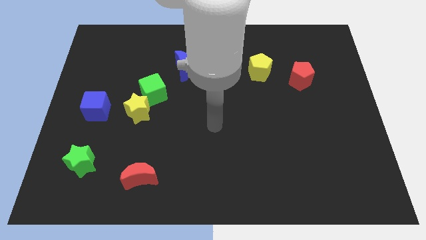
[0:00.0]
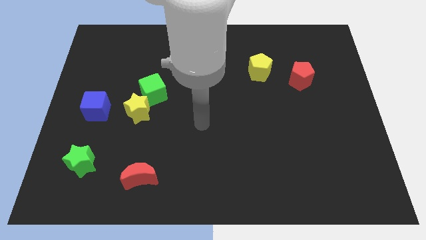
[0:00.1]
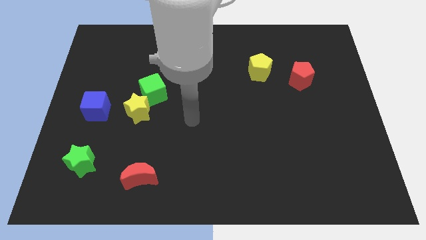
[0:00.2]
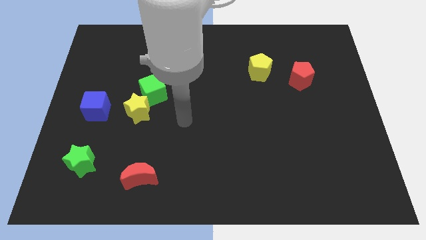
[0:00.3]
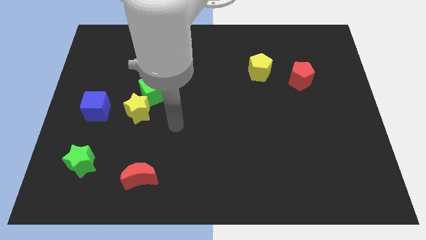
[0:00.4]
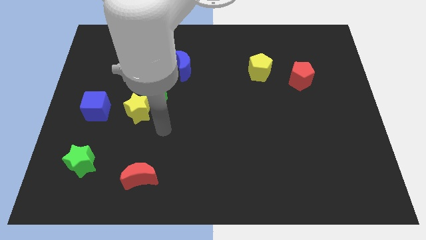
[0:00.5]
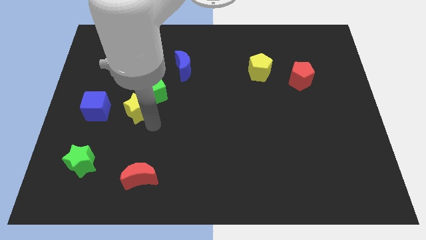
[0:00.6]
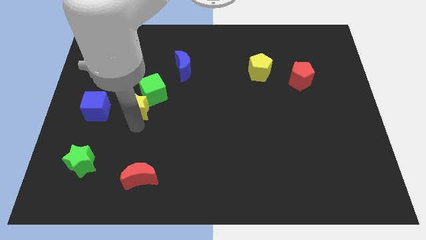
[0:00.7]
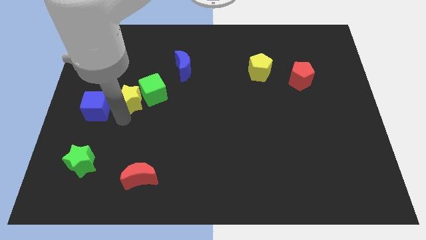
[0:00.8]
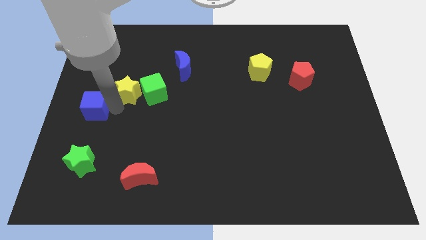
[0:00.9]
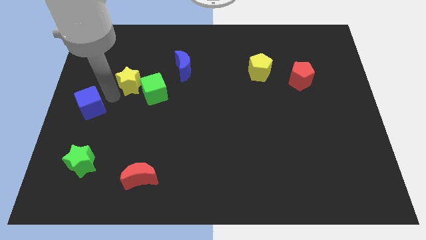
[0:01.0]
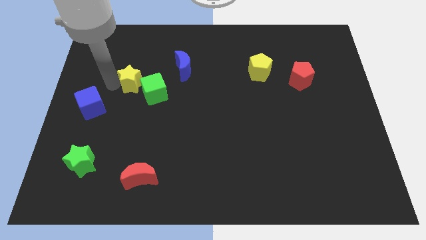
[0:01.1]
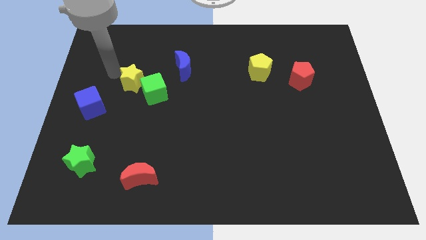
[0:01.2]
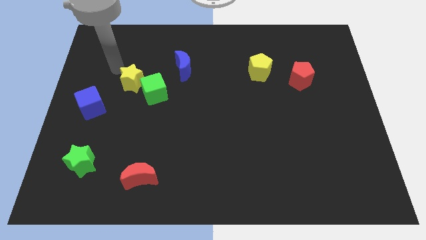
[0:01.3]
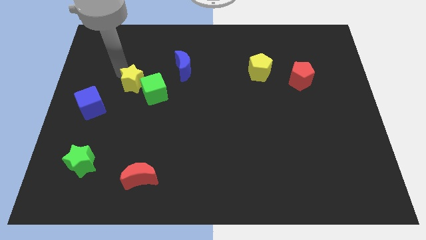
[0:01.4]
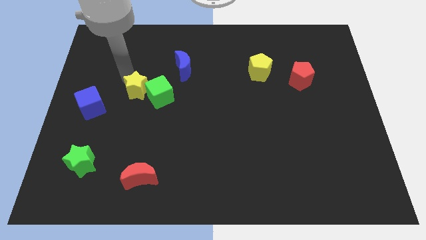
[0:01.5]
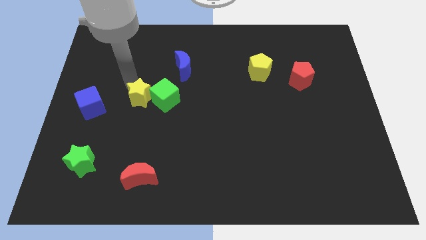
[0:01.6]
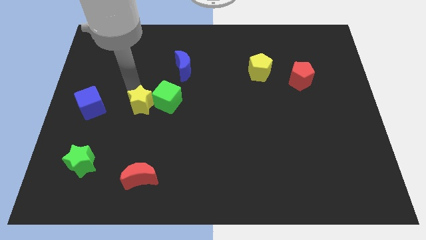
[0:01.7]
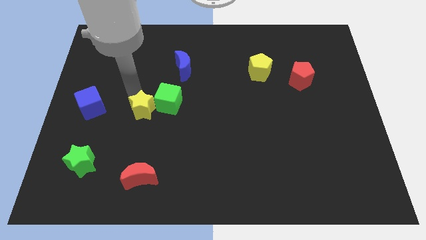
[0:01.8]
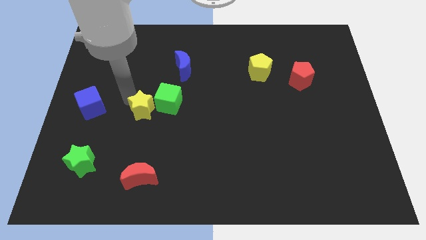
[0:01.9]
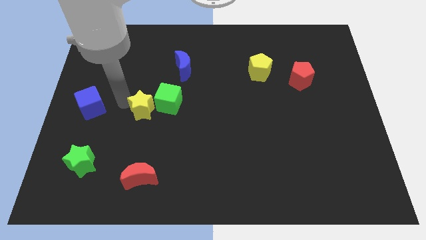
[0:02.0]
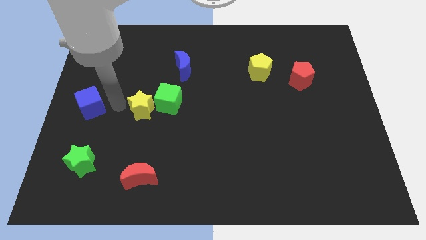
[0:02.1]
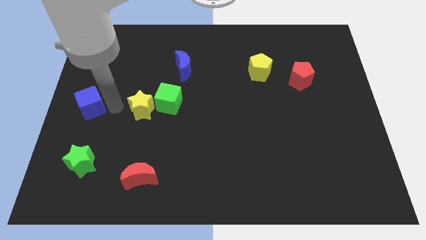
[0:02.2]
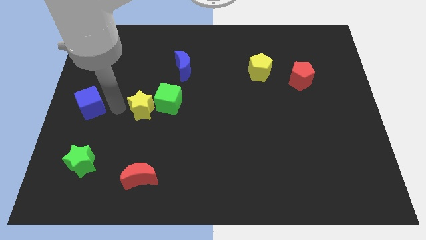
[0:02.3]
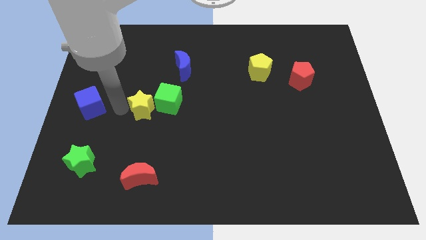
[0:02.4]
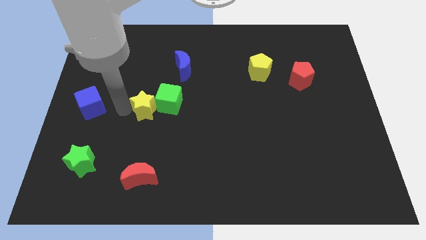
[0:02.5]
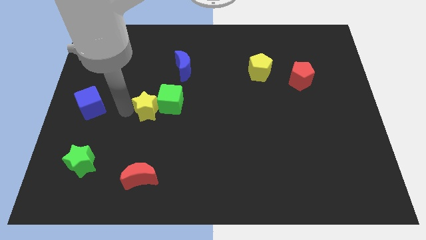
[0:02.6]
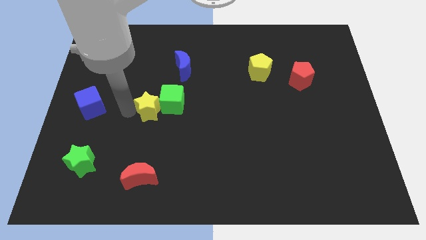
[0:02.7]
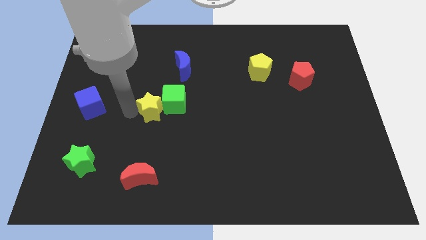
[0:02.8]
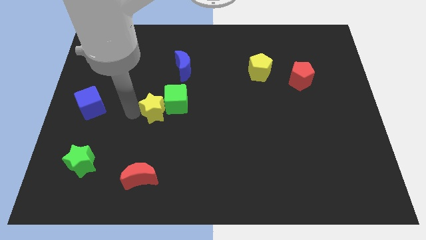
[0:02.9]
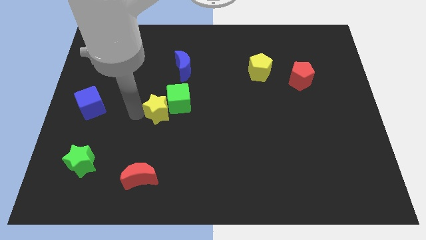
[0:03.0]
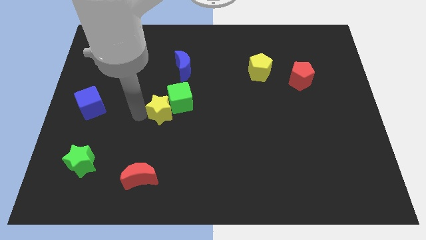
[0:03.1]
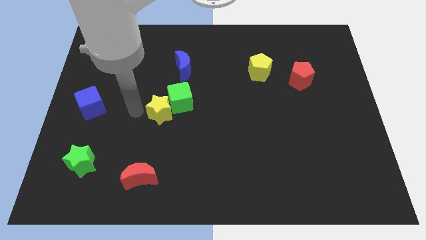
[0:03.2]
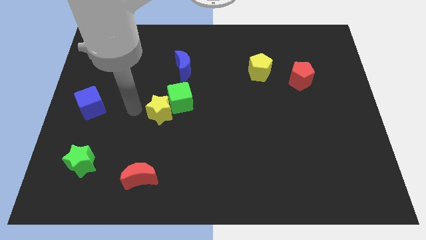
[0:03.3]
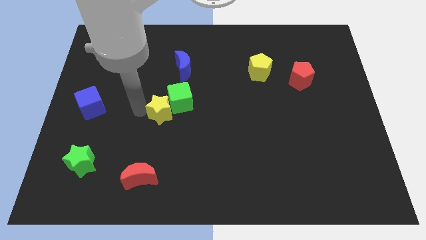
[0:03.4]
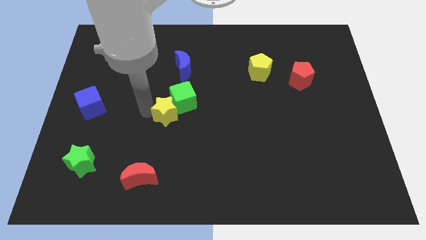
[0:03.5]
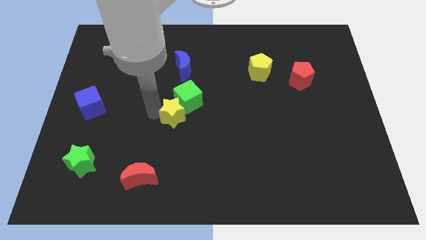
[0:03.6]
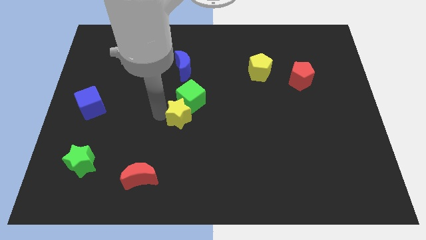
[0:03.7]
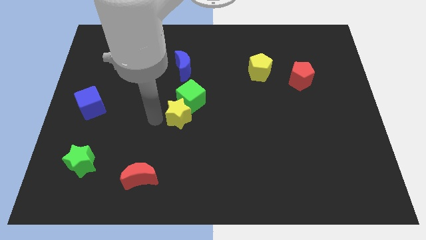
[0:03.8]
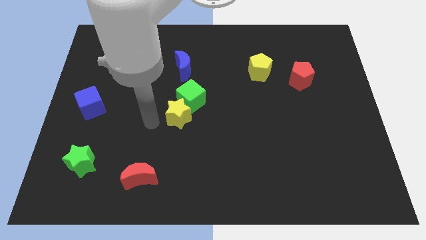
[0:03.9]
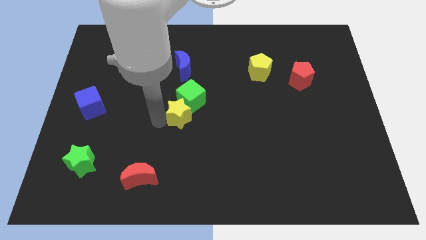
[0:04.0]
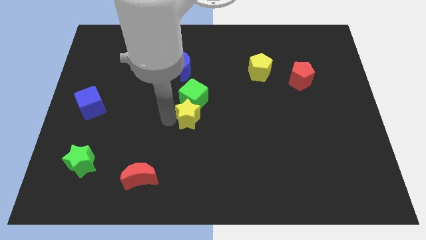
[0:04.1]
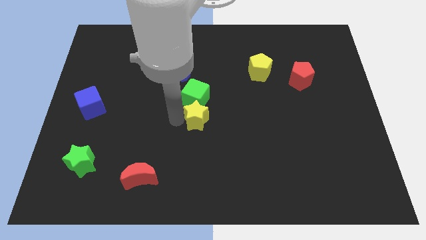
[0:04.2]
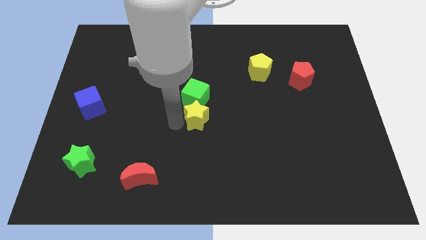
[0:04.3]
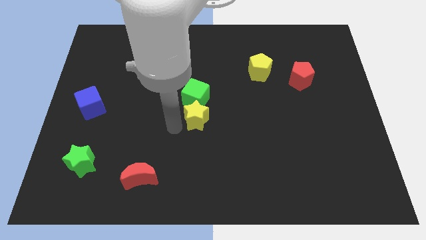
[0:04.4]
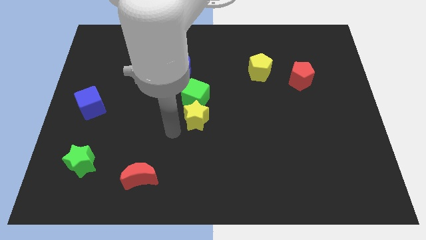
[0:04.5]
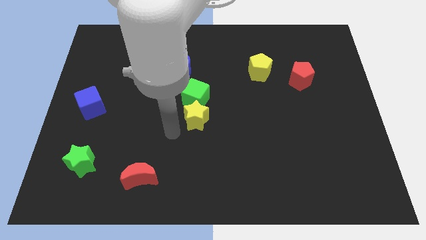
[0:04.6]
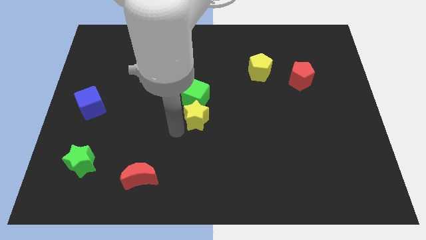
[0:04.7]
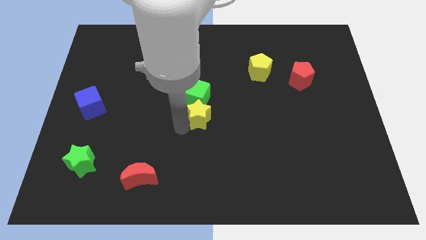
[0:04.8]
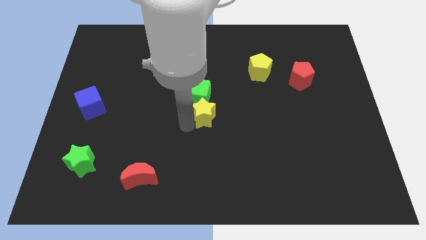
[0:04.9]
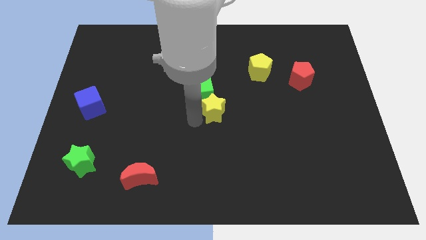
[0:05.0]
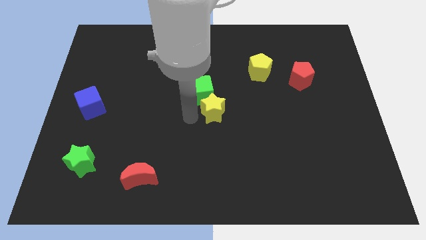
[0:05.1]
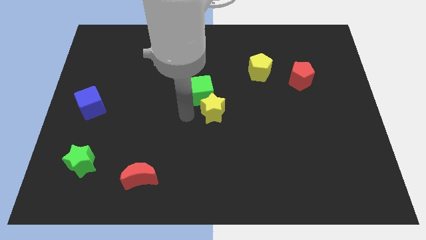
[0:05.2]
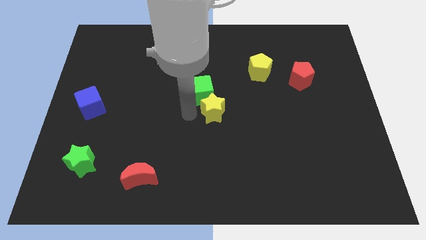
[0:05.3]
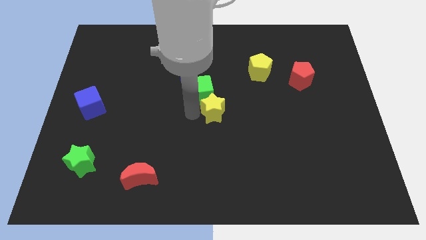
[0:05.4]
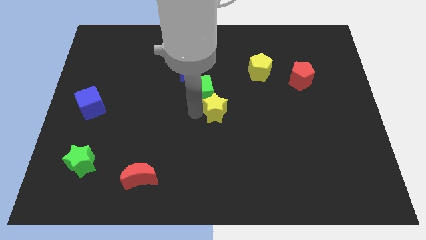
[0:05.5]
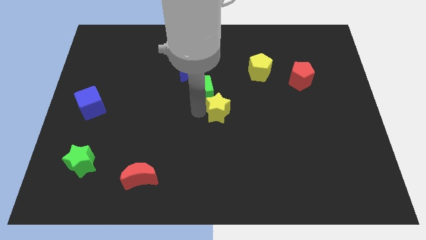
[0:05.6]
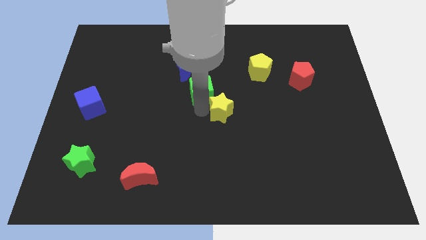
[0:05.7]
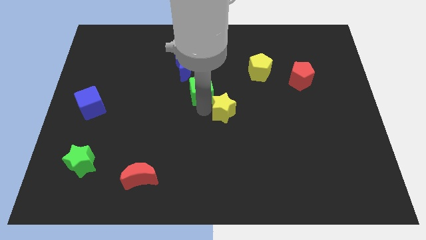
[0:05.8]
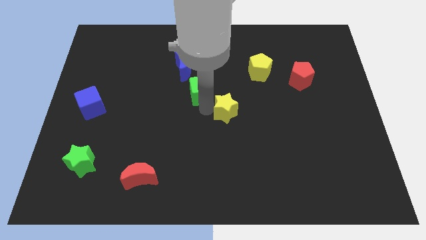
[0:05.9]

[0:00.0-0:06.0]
move the yellow star right

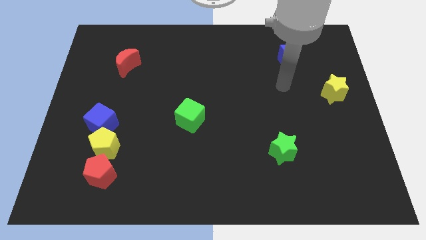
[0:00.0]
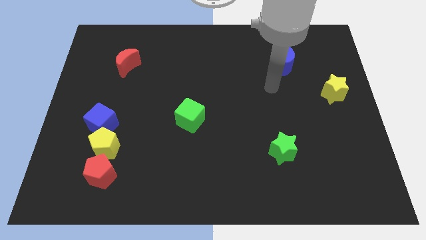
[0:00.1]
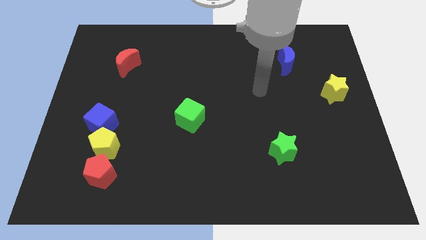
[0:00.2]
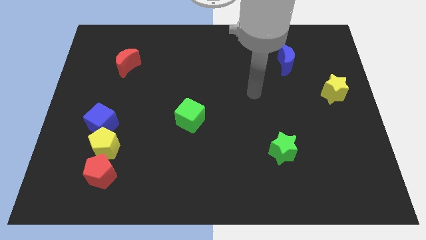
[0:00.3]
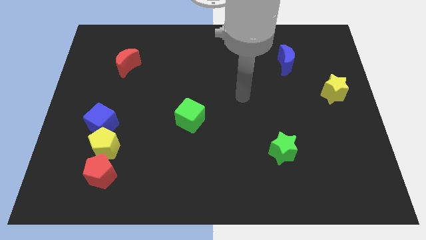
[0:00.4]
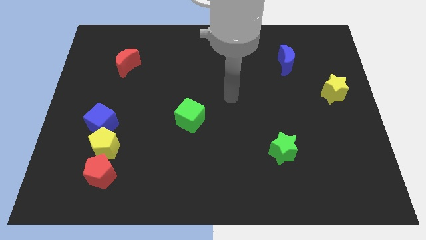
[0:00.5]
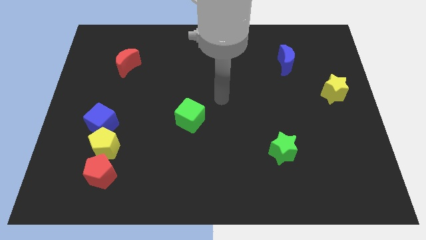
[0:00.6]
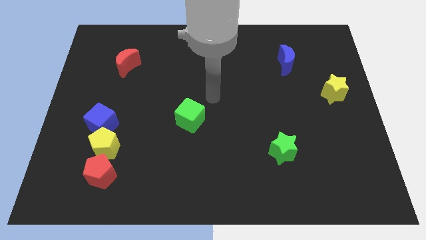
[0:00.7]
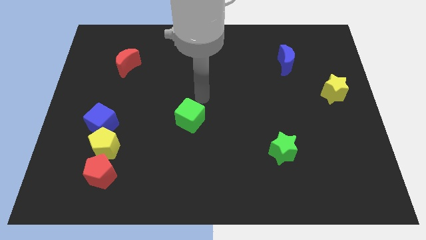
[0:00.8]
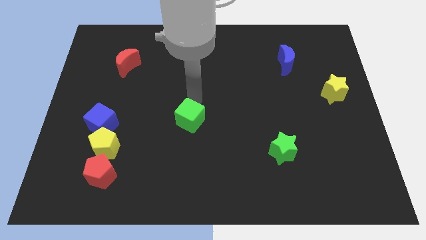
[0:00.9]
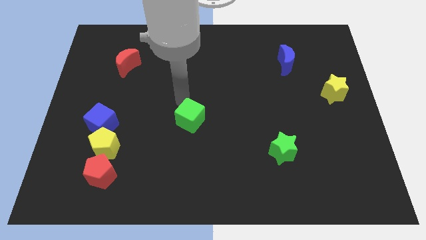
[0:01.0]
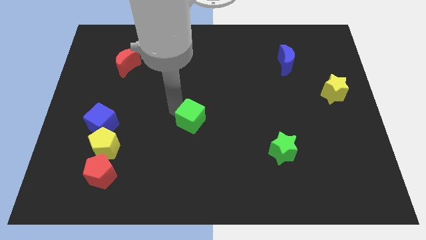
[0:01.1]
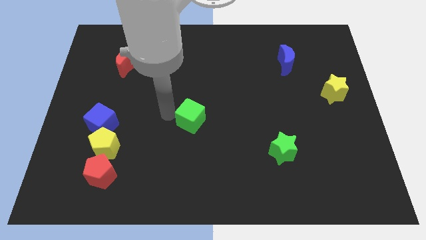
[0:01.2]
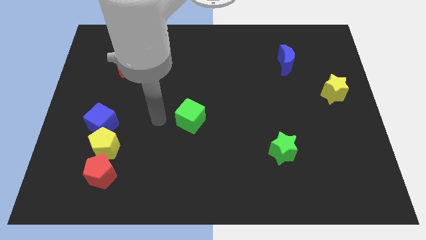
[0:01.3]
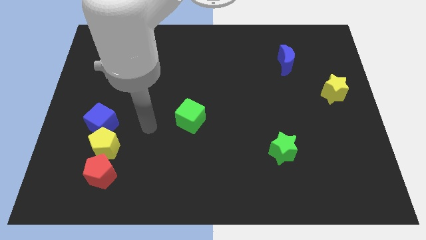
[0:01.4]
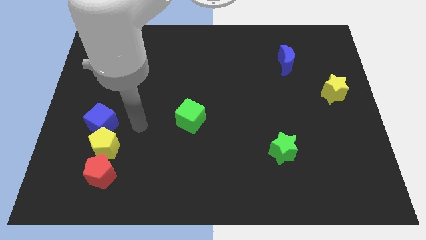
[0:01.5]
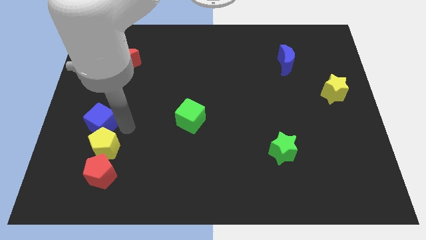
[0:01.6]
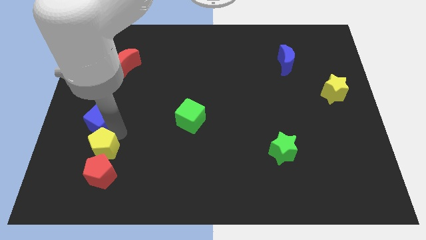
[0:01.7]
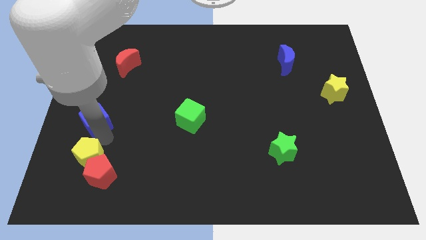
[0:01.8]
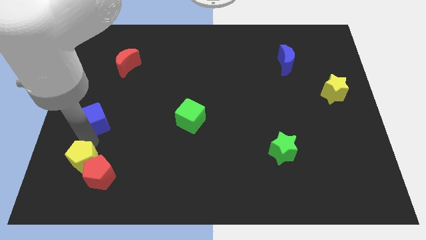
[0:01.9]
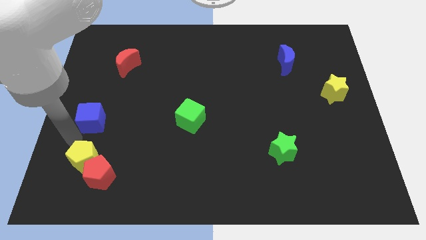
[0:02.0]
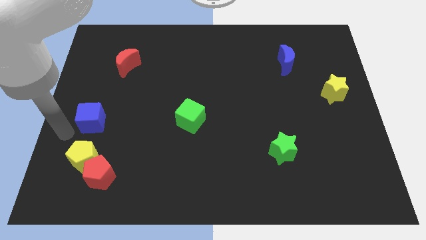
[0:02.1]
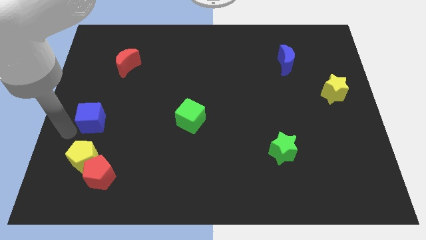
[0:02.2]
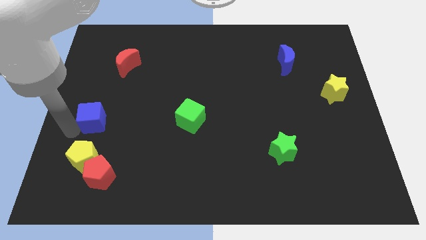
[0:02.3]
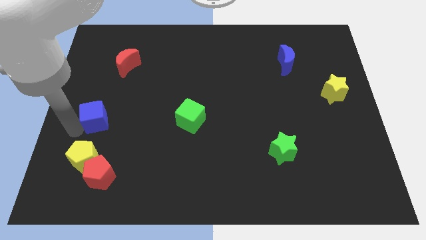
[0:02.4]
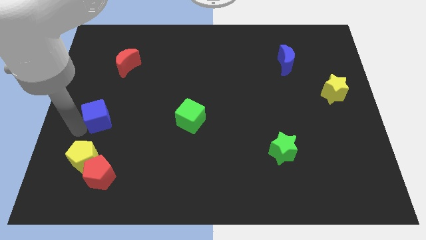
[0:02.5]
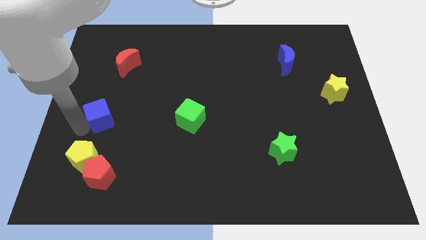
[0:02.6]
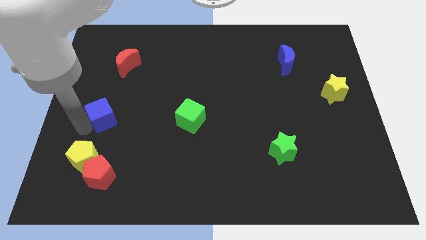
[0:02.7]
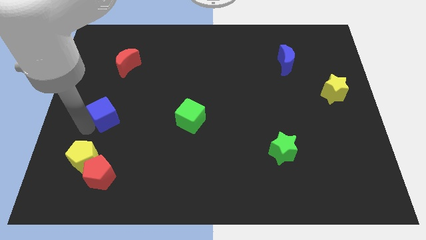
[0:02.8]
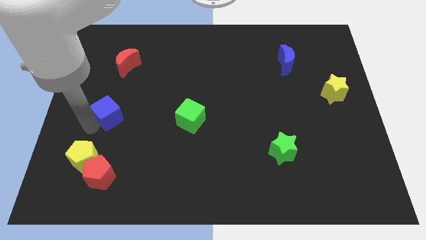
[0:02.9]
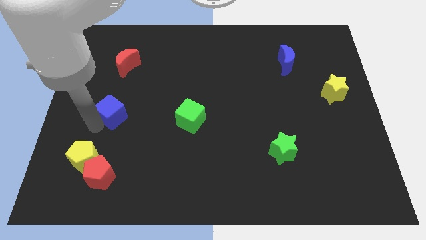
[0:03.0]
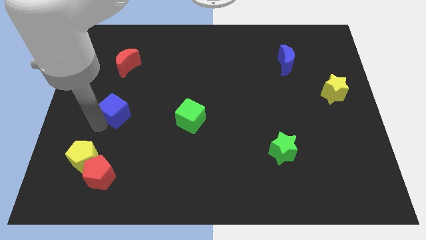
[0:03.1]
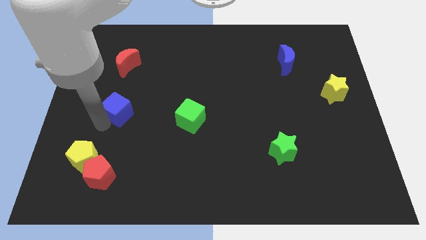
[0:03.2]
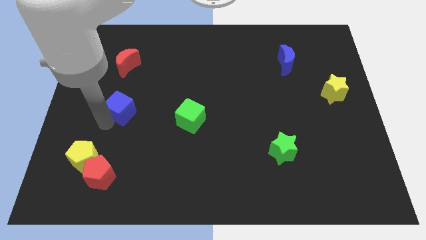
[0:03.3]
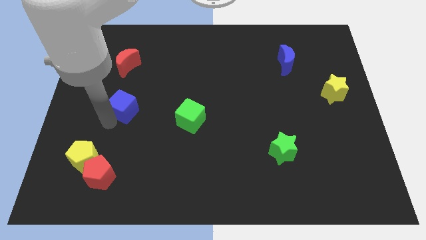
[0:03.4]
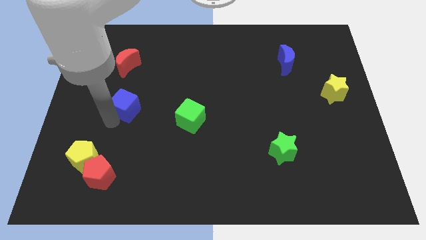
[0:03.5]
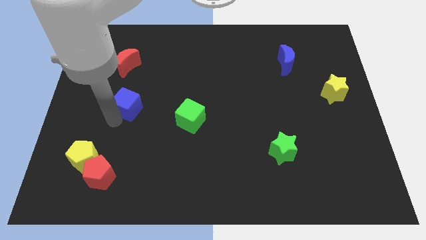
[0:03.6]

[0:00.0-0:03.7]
slightly push the blue cube upwards and then to the right
